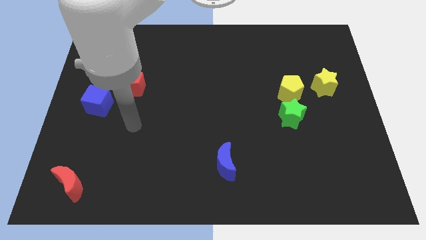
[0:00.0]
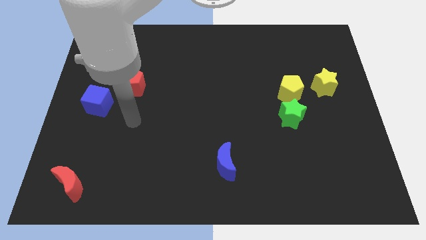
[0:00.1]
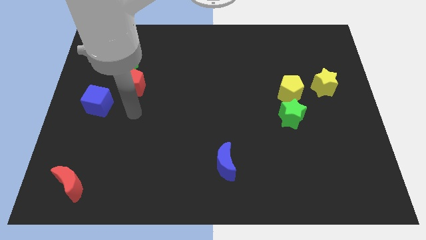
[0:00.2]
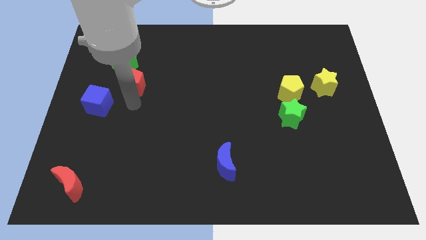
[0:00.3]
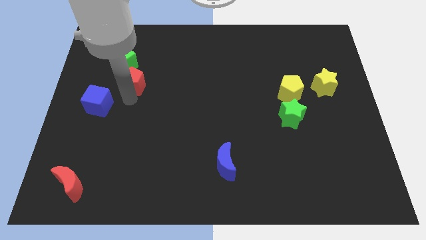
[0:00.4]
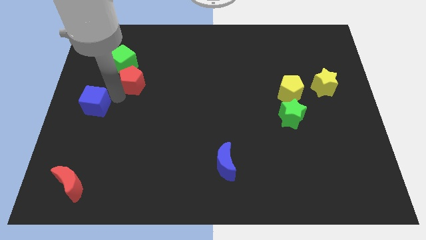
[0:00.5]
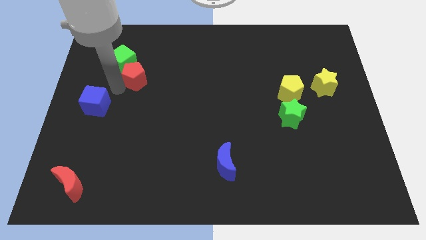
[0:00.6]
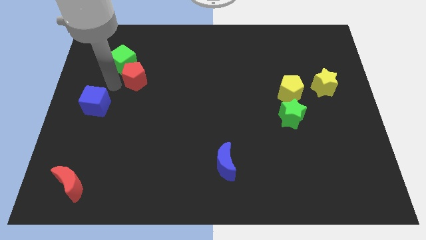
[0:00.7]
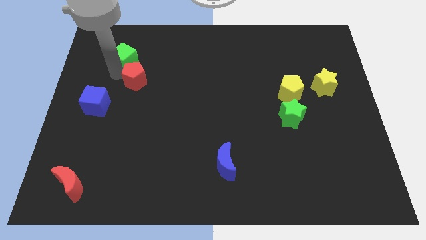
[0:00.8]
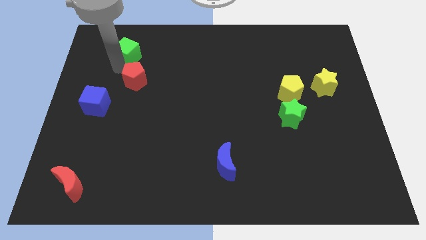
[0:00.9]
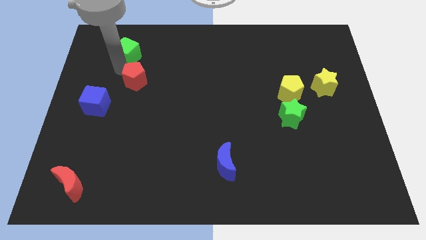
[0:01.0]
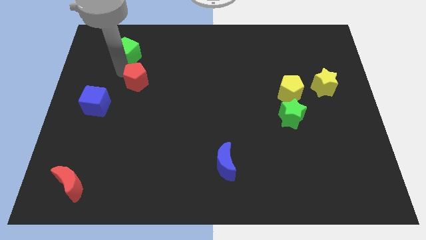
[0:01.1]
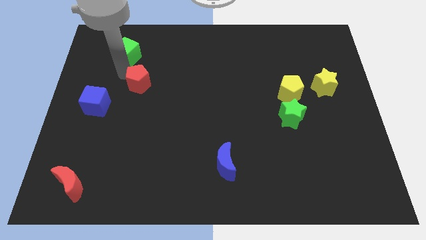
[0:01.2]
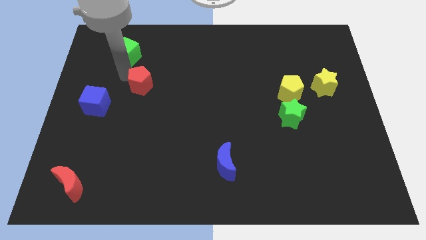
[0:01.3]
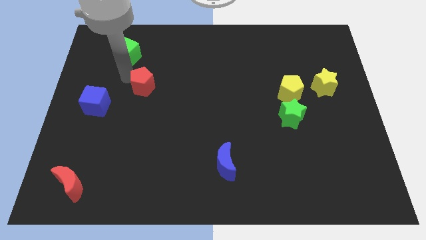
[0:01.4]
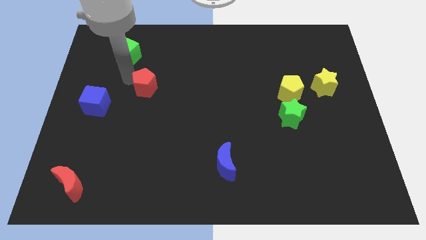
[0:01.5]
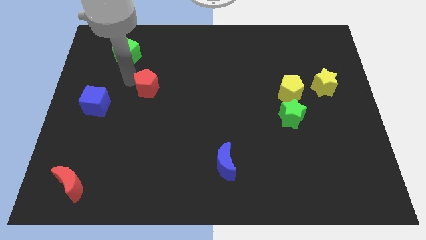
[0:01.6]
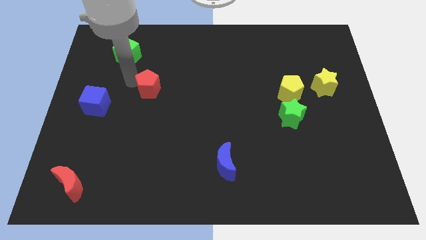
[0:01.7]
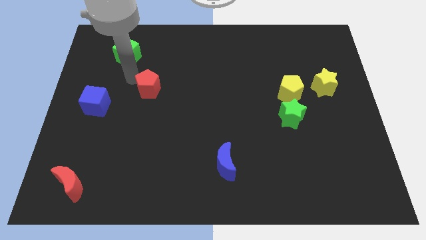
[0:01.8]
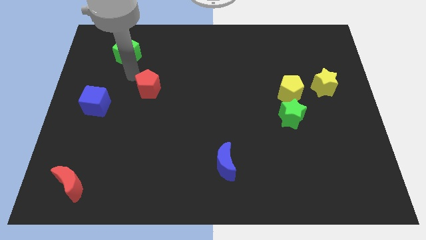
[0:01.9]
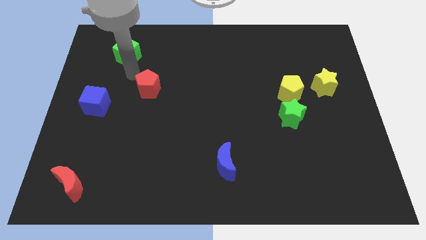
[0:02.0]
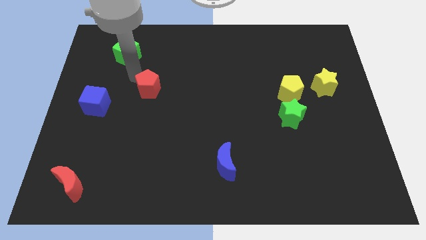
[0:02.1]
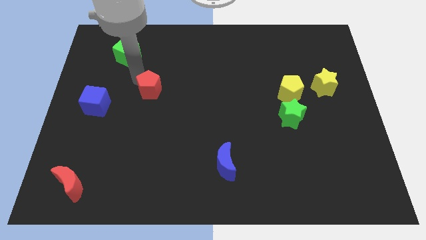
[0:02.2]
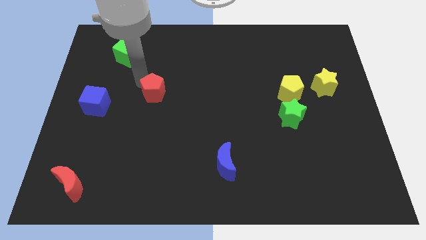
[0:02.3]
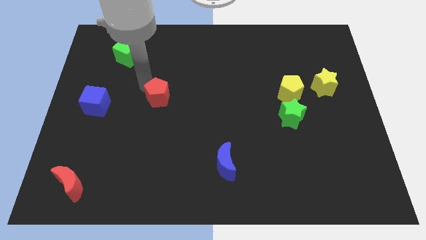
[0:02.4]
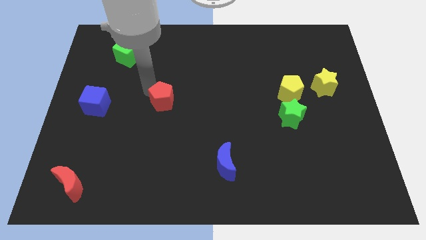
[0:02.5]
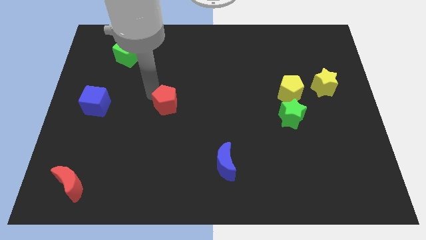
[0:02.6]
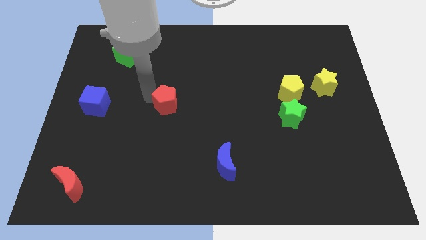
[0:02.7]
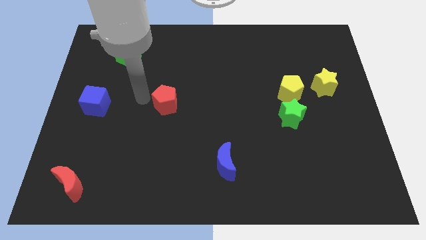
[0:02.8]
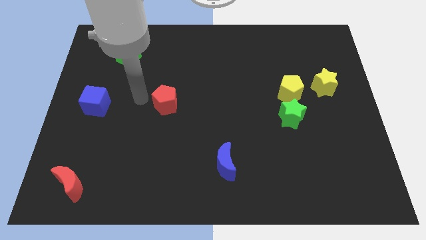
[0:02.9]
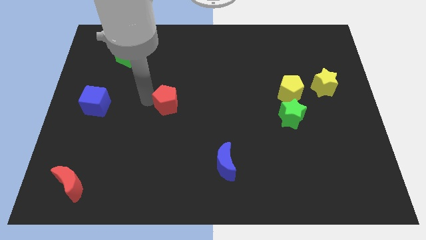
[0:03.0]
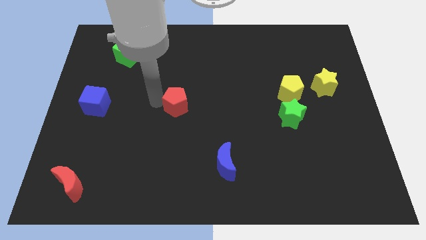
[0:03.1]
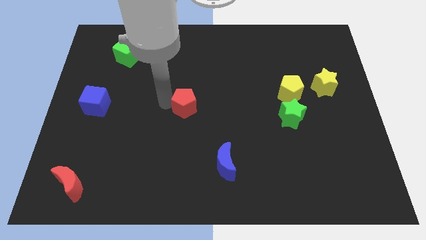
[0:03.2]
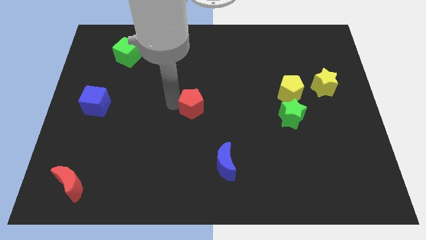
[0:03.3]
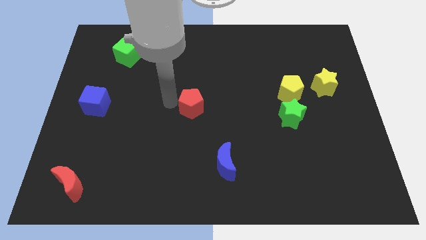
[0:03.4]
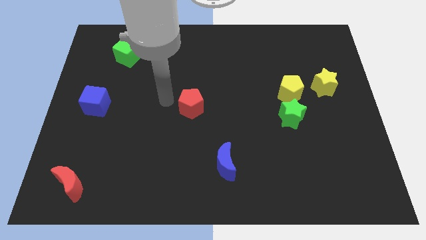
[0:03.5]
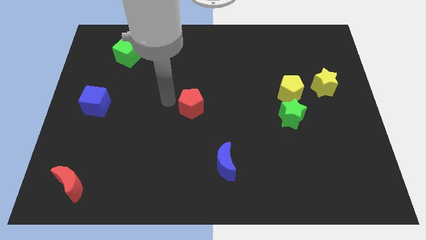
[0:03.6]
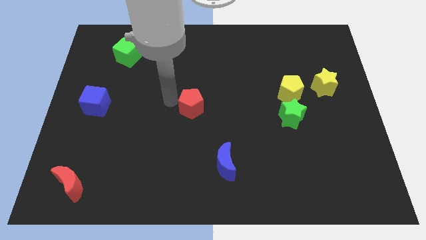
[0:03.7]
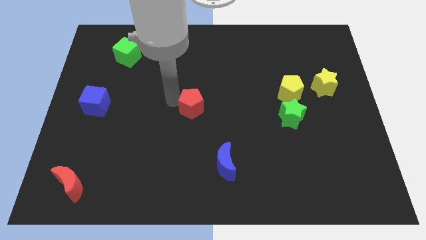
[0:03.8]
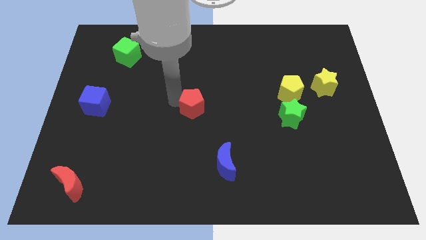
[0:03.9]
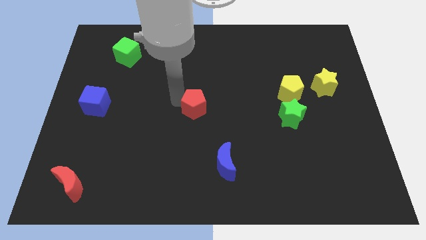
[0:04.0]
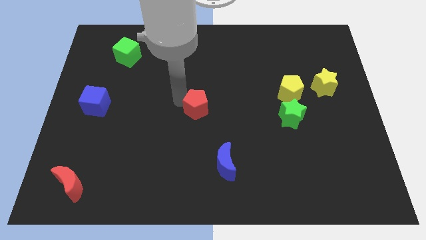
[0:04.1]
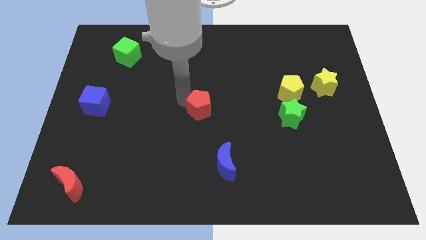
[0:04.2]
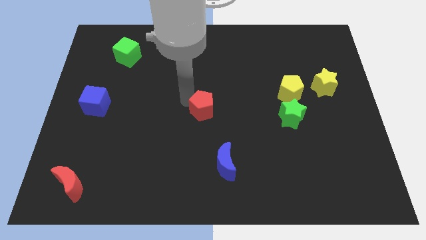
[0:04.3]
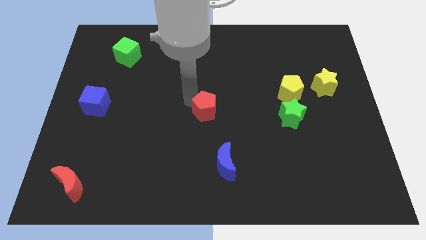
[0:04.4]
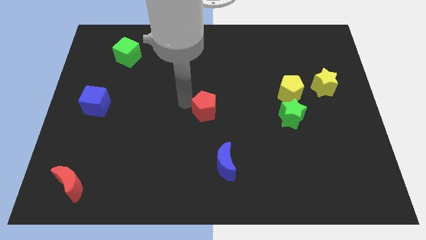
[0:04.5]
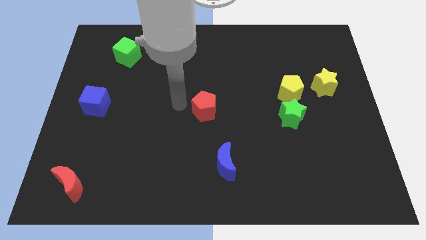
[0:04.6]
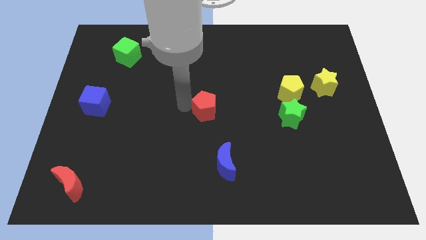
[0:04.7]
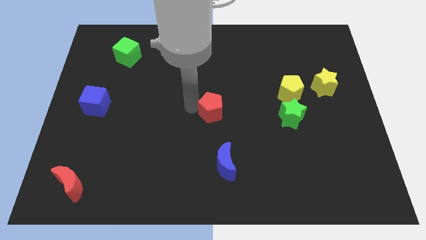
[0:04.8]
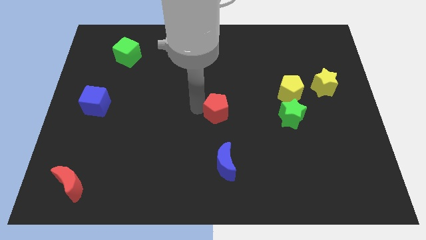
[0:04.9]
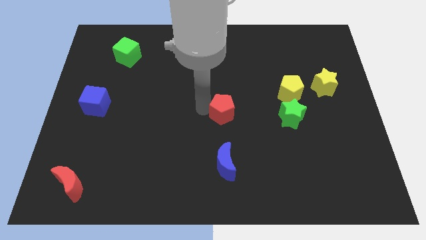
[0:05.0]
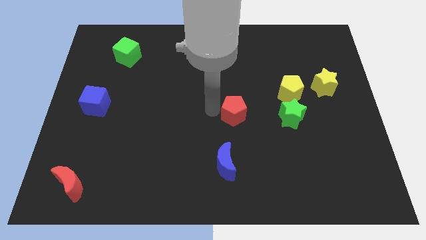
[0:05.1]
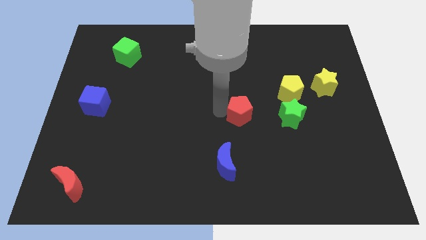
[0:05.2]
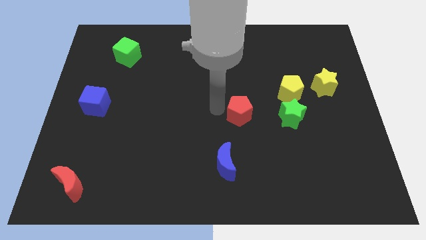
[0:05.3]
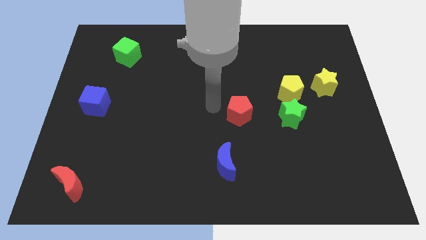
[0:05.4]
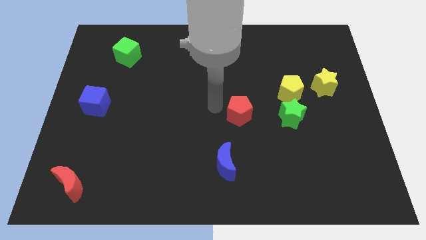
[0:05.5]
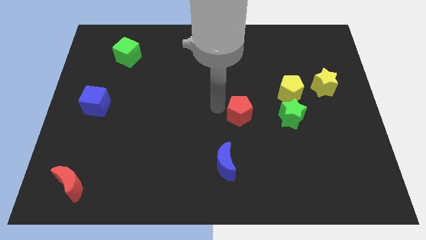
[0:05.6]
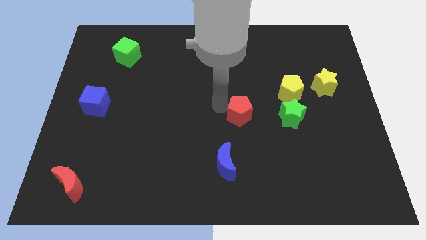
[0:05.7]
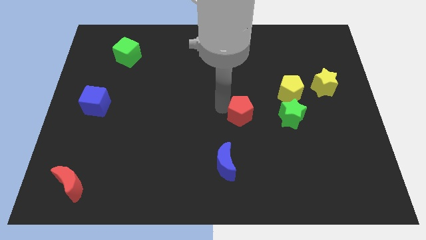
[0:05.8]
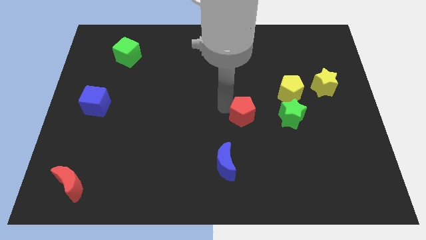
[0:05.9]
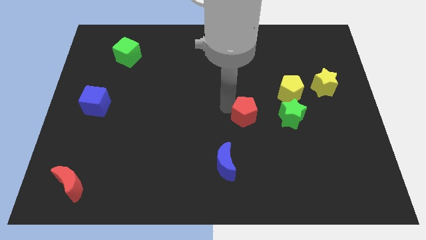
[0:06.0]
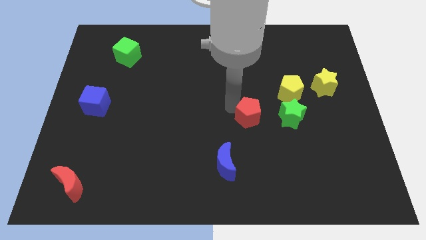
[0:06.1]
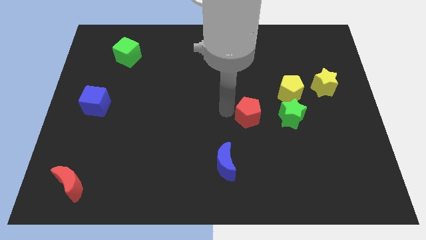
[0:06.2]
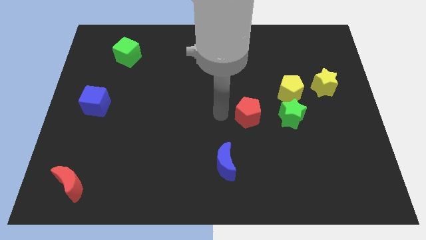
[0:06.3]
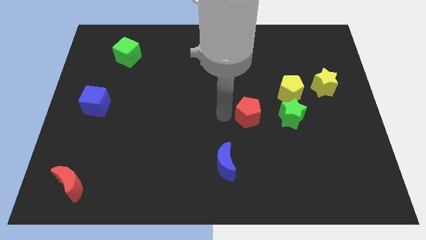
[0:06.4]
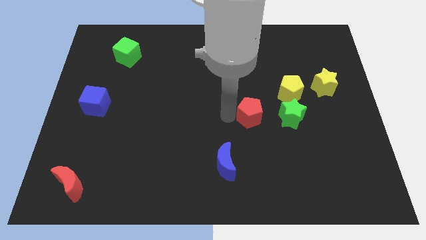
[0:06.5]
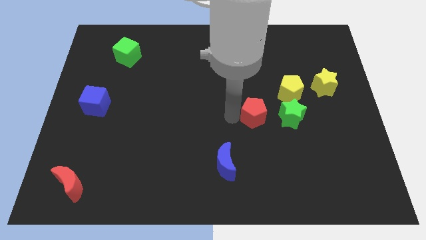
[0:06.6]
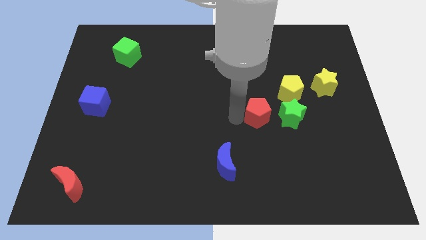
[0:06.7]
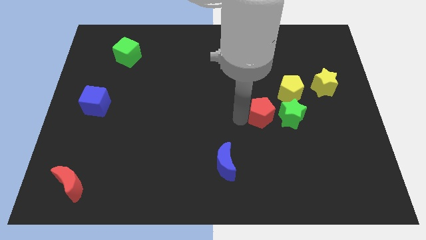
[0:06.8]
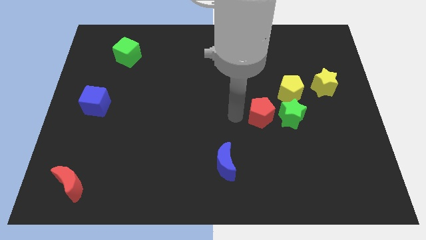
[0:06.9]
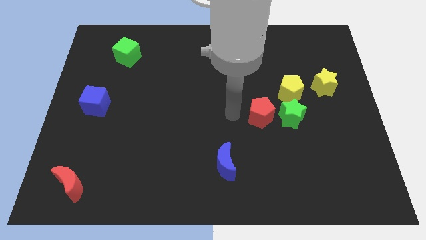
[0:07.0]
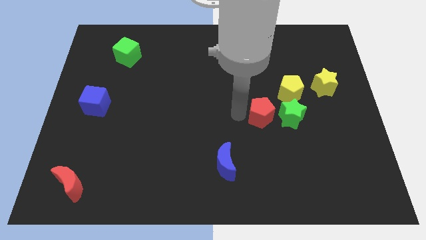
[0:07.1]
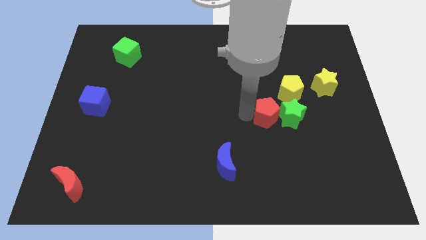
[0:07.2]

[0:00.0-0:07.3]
push the red pentagon to the green star

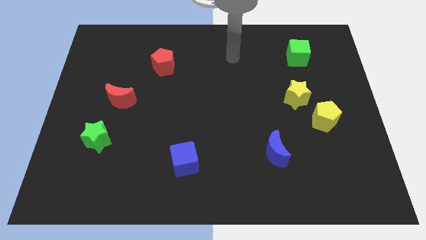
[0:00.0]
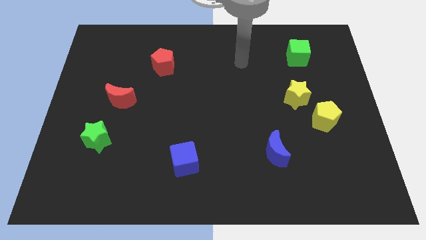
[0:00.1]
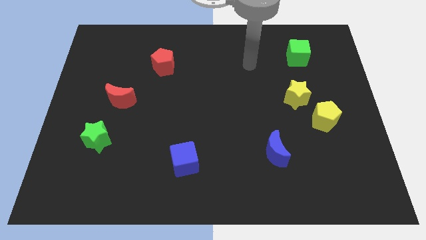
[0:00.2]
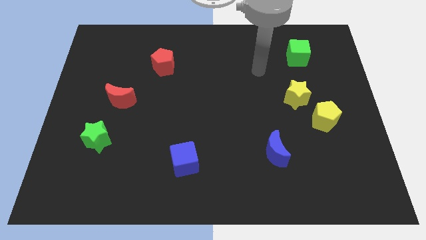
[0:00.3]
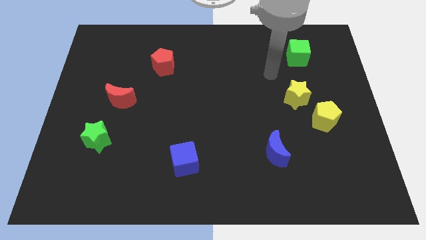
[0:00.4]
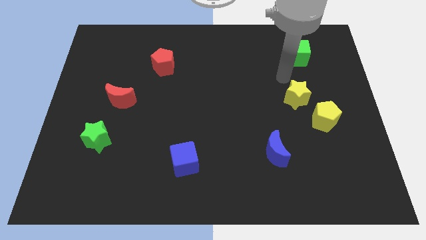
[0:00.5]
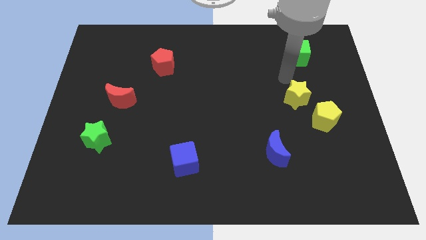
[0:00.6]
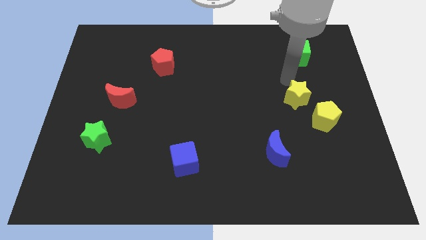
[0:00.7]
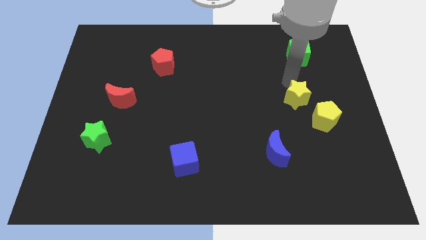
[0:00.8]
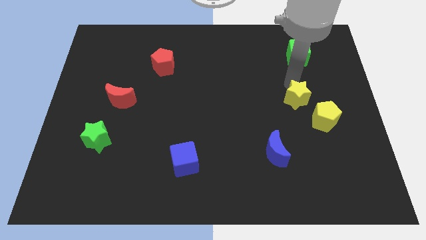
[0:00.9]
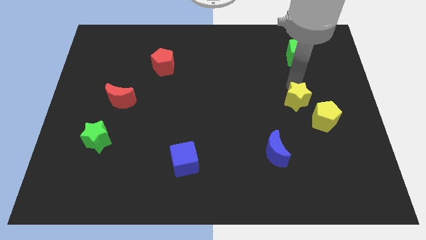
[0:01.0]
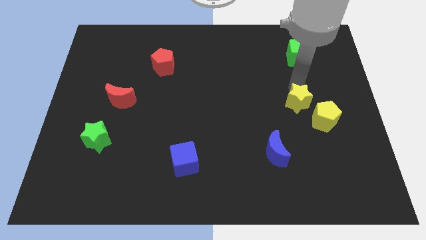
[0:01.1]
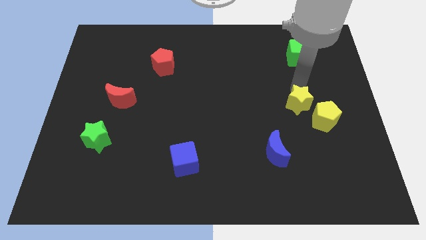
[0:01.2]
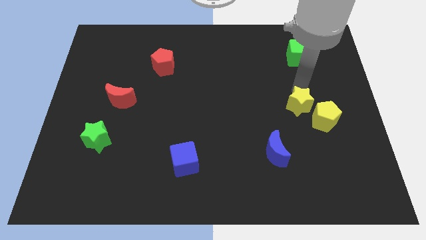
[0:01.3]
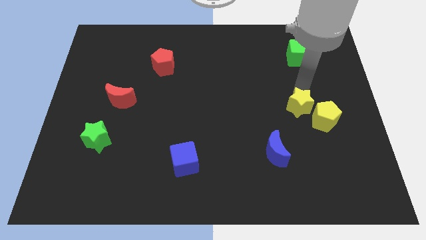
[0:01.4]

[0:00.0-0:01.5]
put the yellow star close to the yellow pentagon
